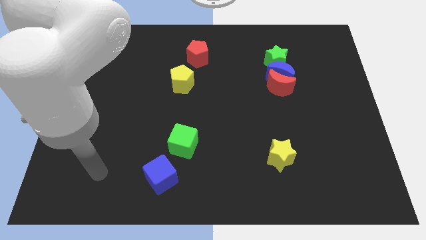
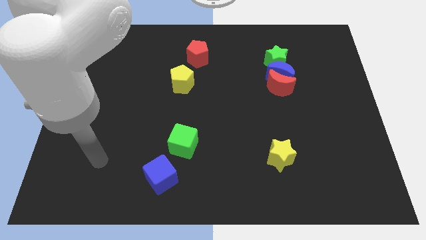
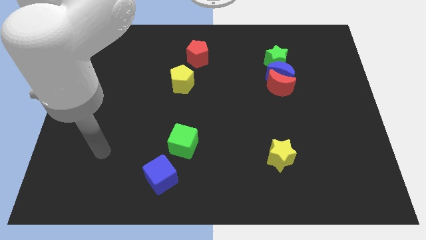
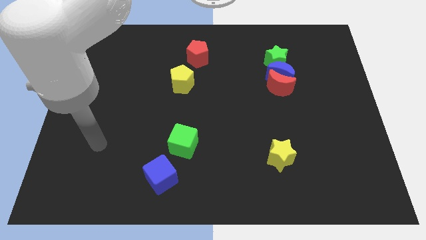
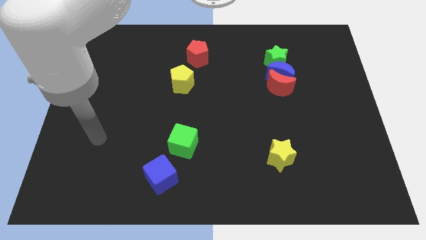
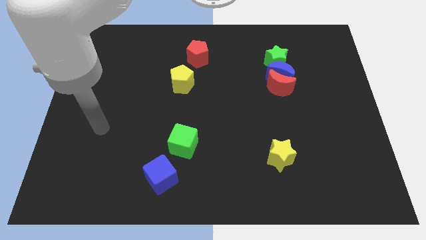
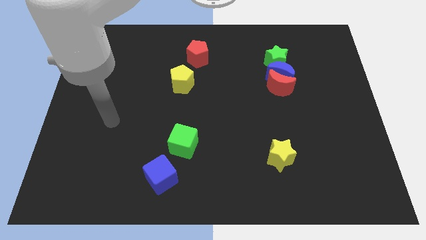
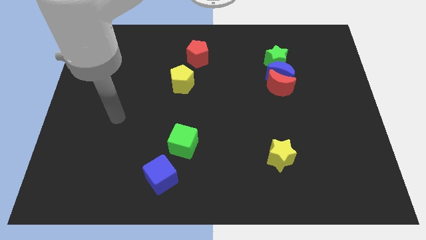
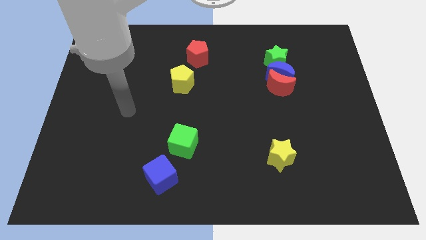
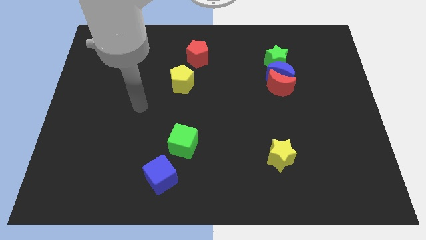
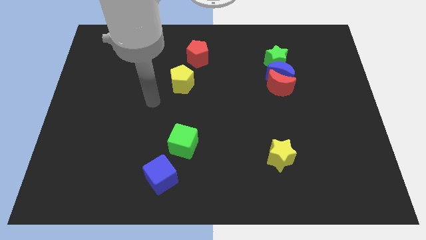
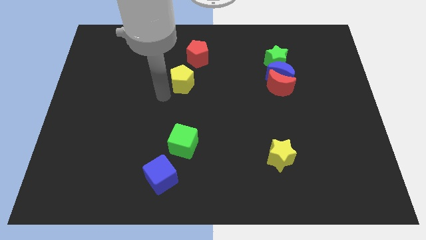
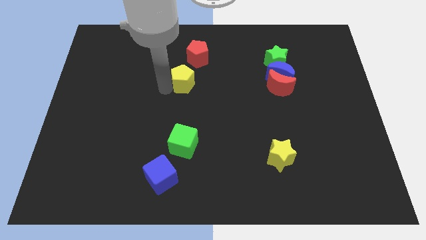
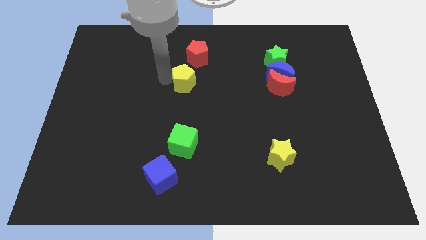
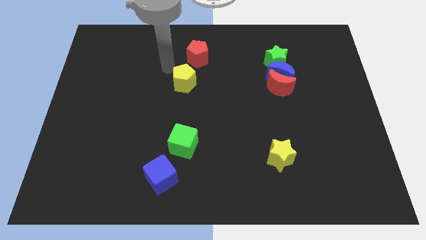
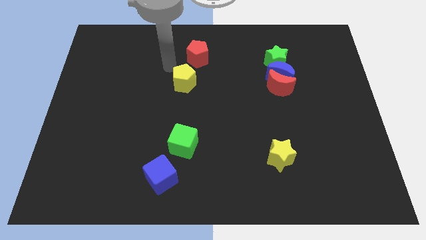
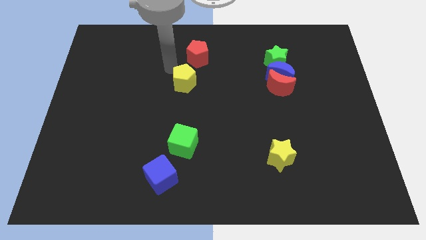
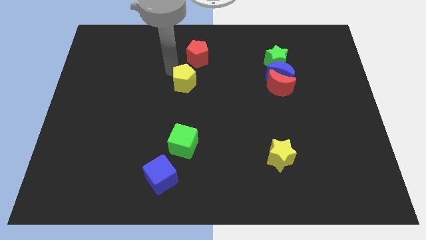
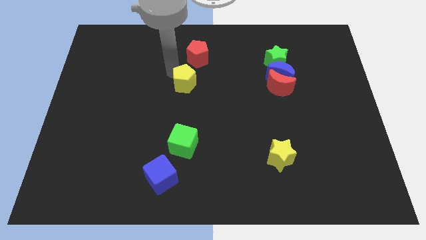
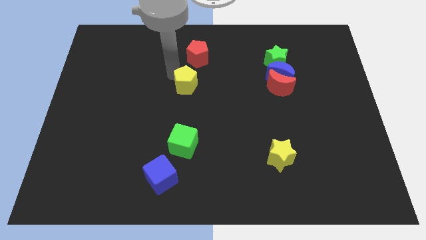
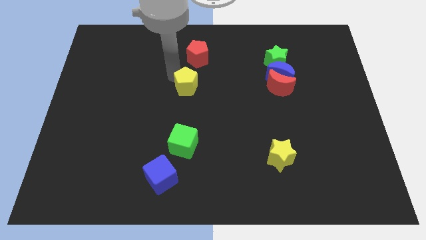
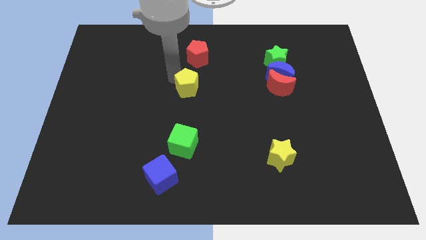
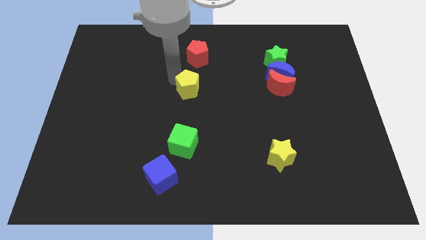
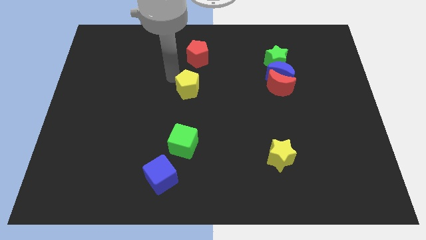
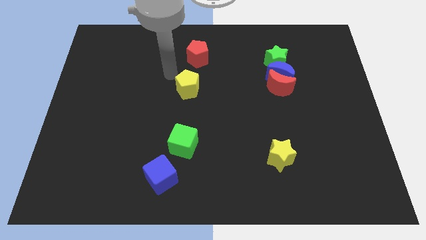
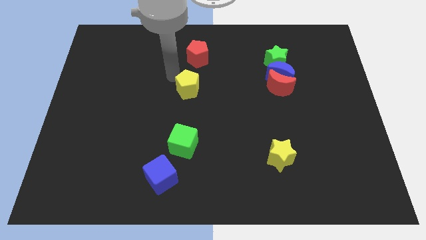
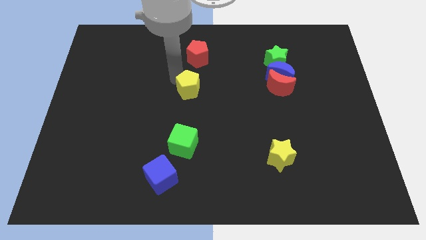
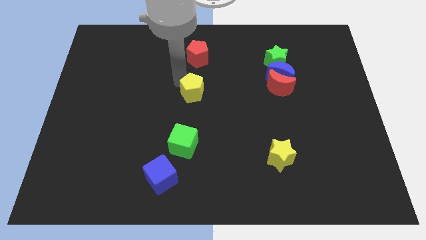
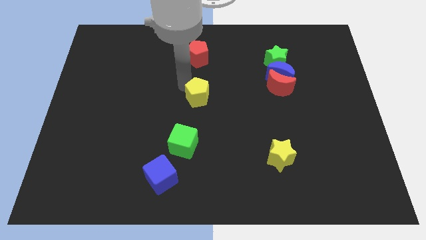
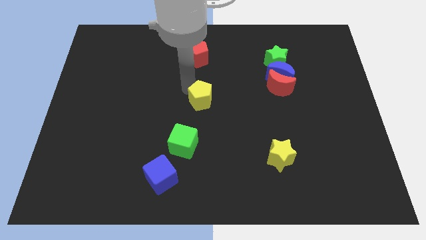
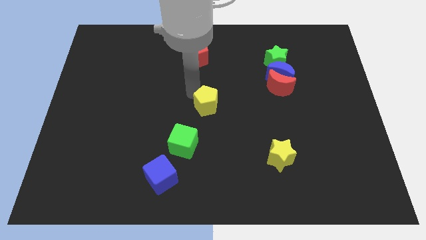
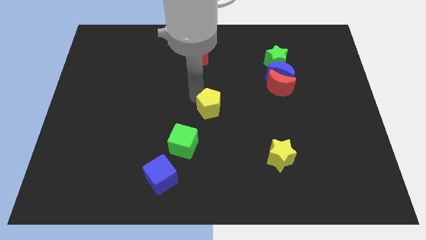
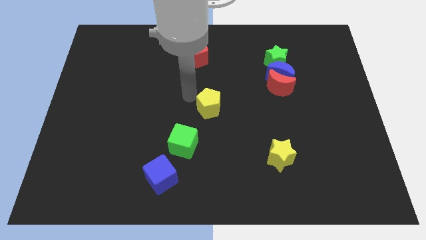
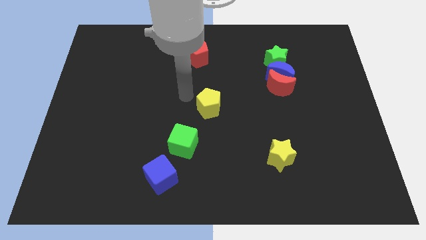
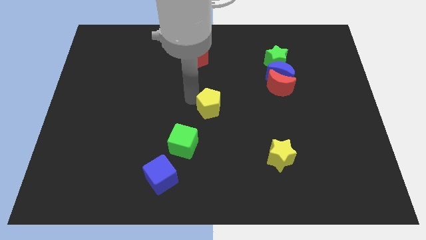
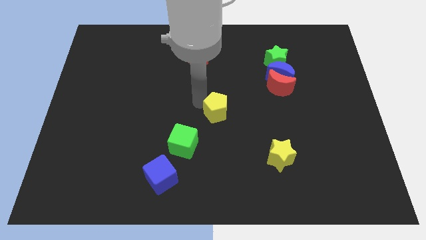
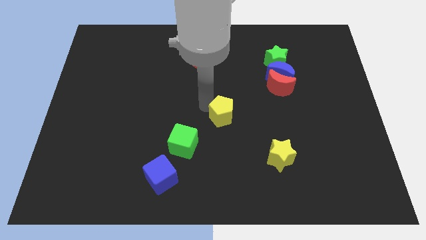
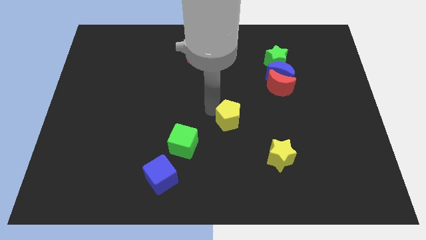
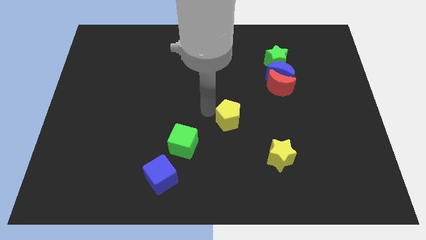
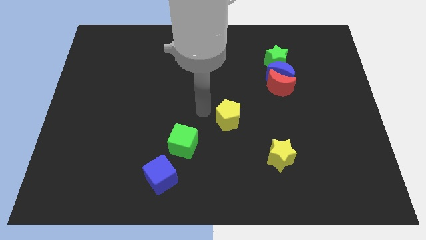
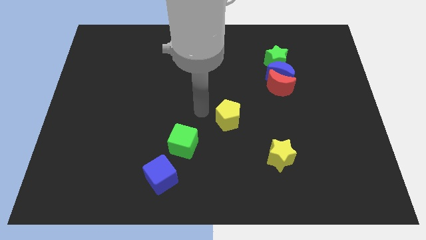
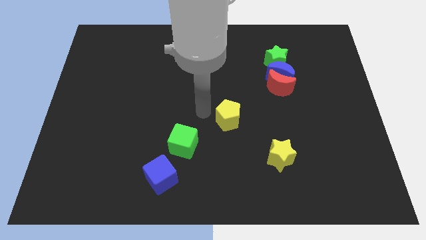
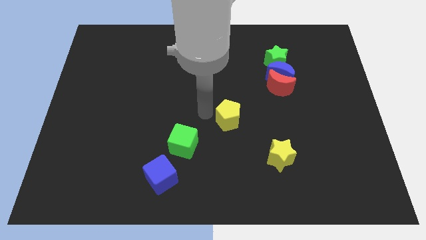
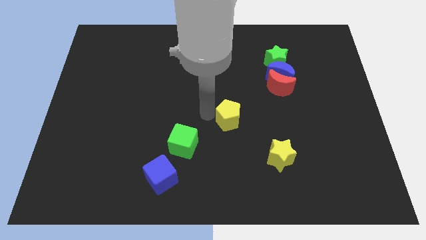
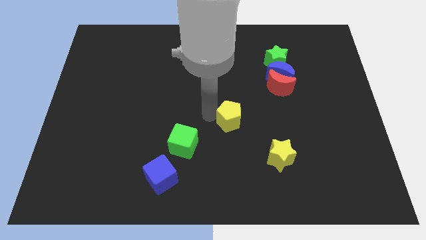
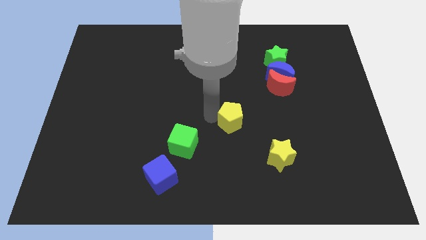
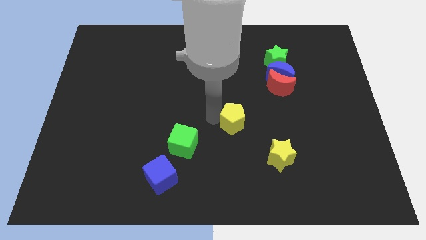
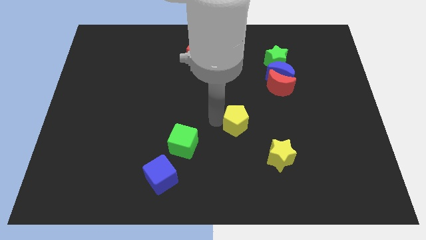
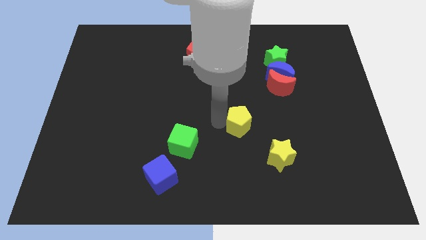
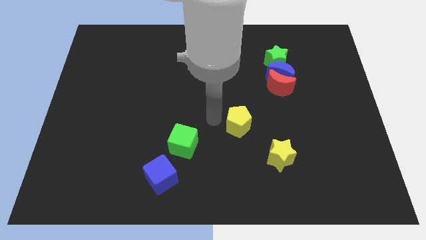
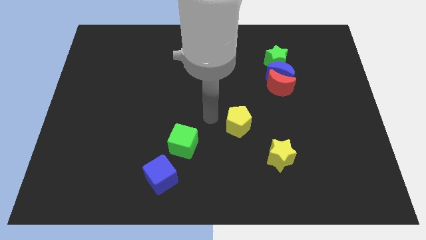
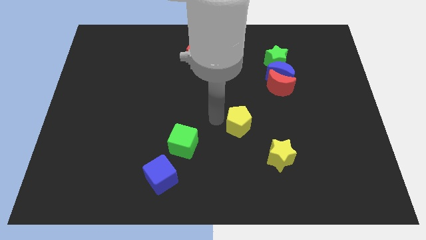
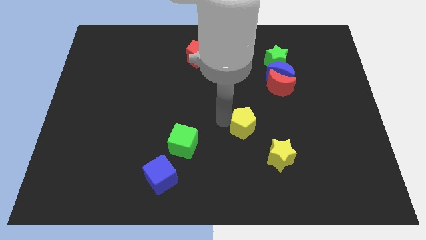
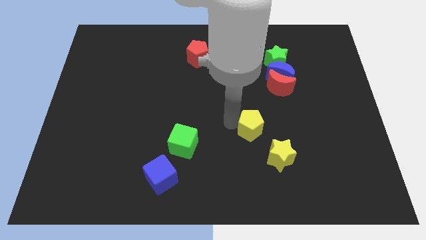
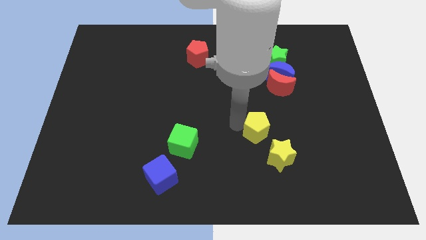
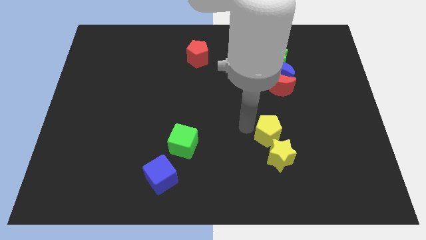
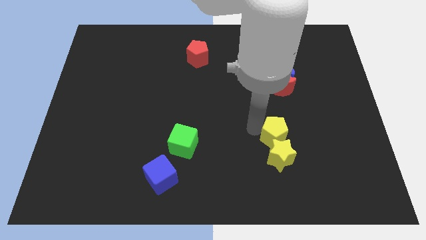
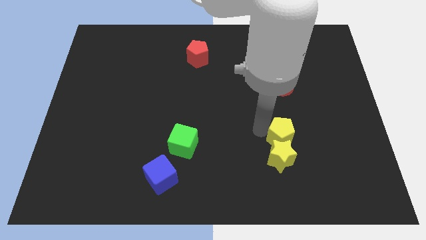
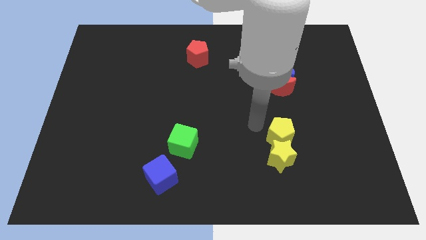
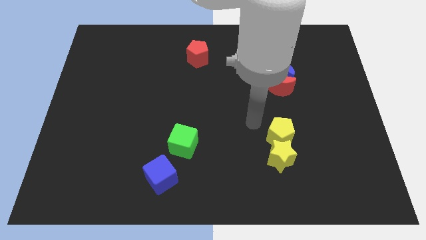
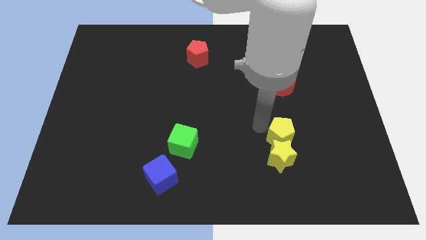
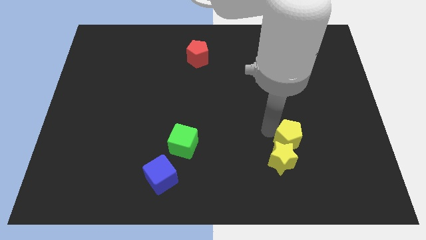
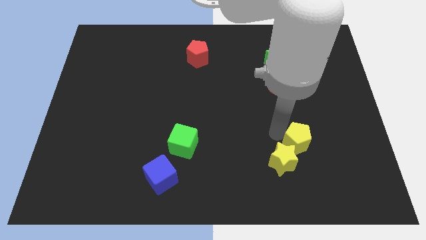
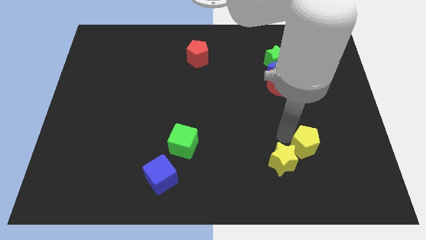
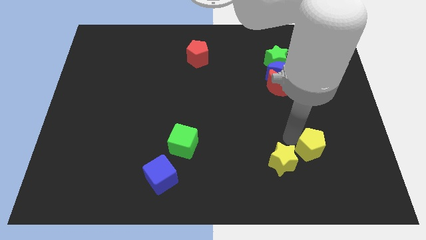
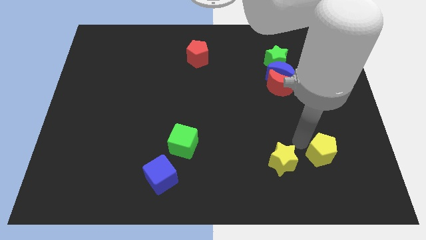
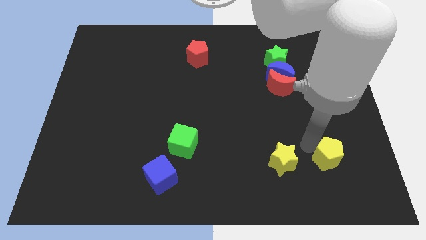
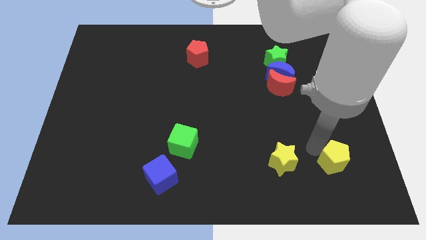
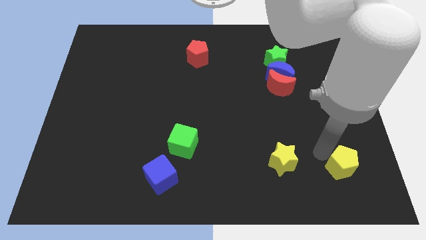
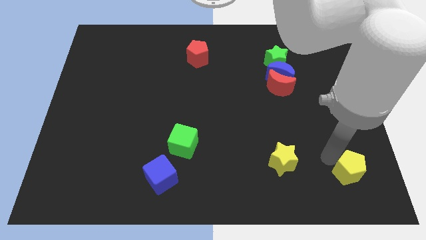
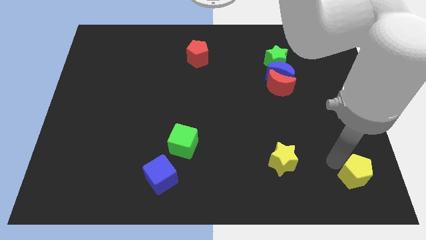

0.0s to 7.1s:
move the yellow pentagon to the bottom right of the board
